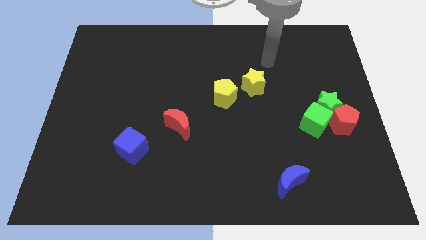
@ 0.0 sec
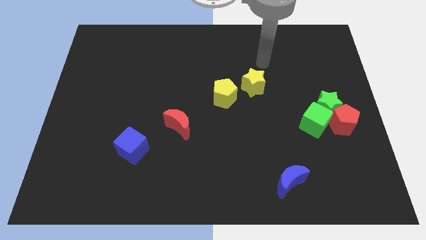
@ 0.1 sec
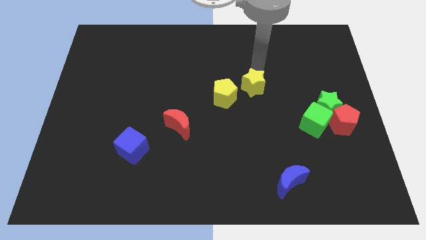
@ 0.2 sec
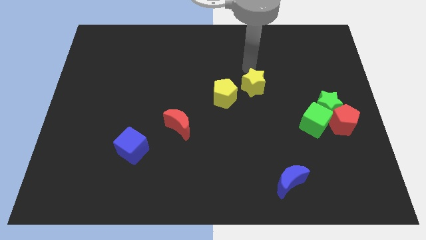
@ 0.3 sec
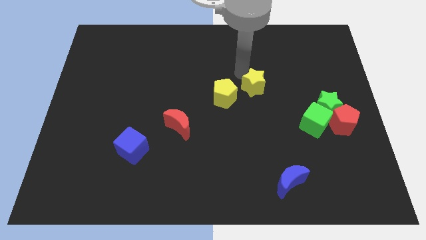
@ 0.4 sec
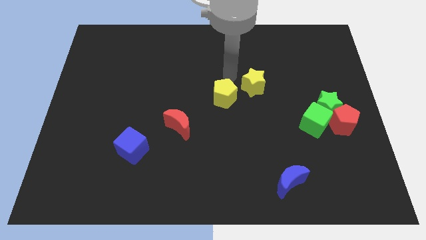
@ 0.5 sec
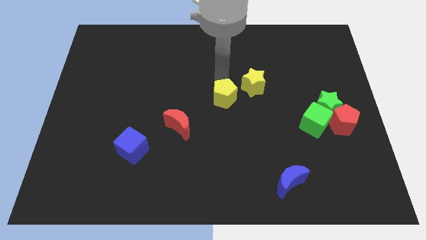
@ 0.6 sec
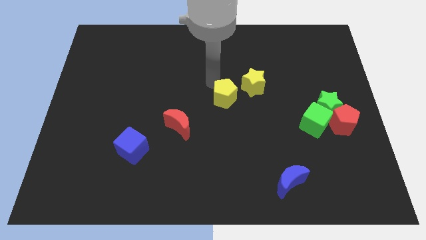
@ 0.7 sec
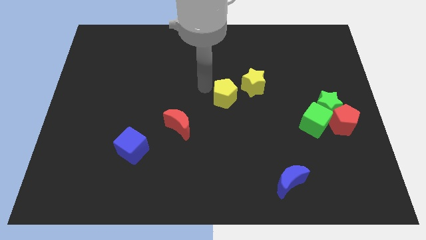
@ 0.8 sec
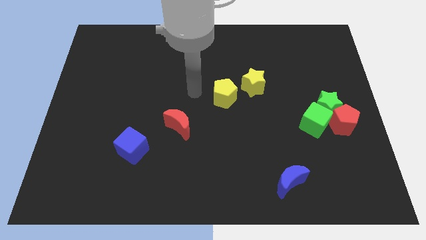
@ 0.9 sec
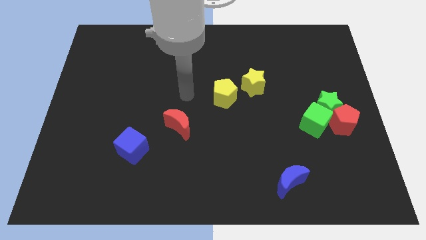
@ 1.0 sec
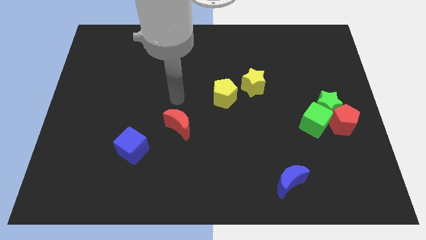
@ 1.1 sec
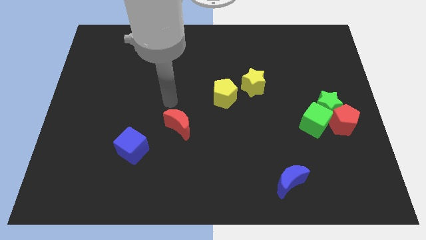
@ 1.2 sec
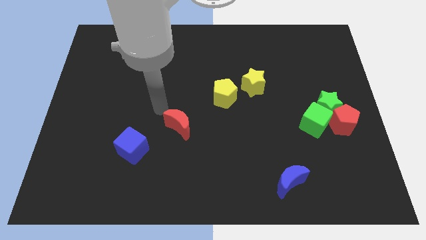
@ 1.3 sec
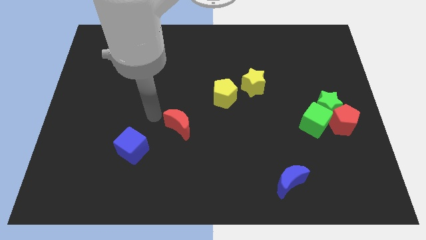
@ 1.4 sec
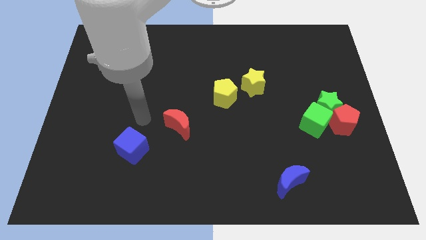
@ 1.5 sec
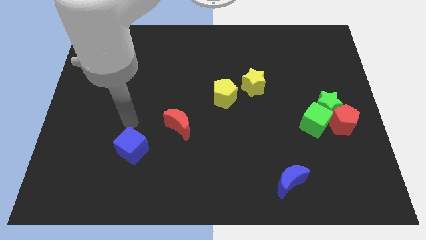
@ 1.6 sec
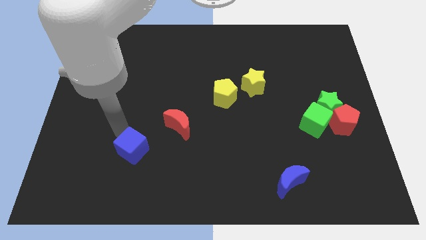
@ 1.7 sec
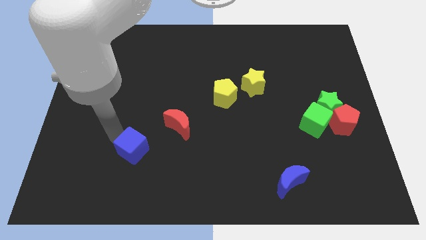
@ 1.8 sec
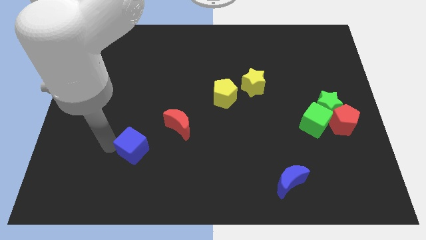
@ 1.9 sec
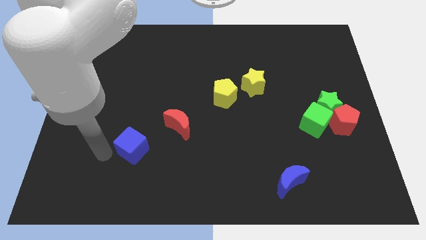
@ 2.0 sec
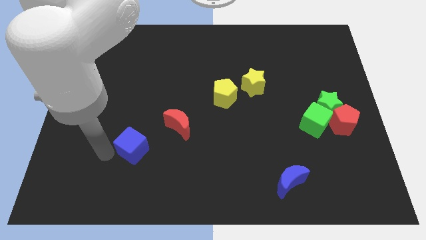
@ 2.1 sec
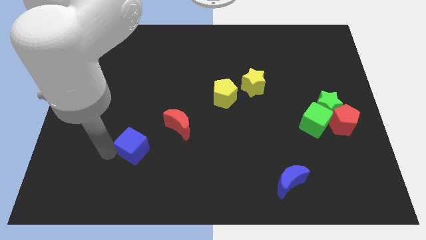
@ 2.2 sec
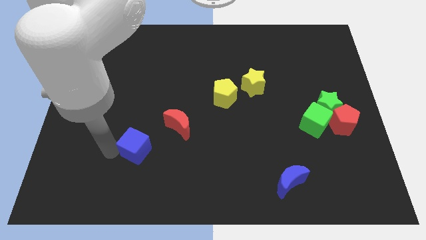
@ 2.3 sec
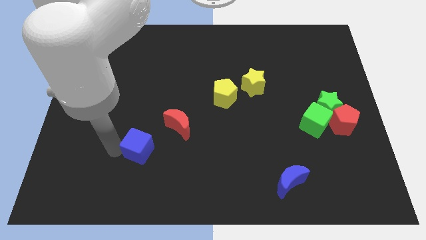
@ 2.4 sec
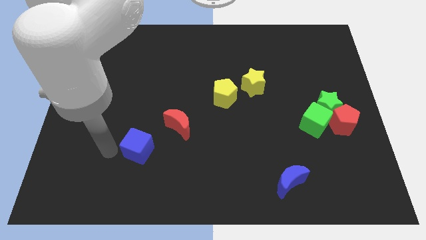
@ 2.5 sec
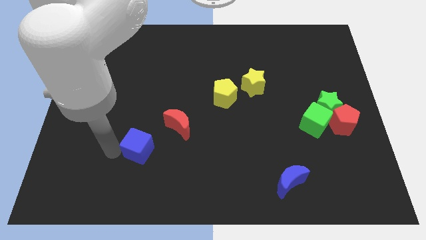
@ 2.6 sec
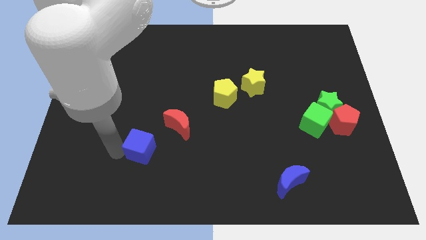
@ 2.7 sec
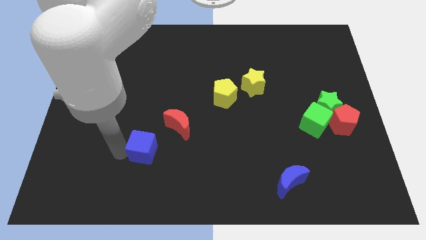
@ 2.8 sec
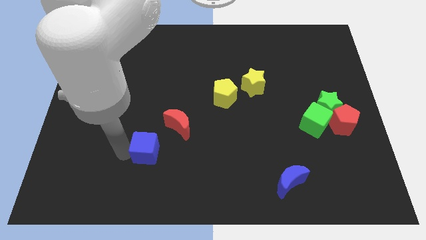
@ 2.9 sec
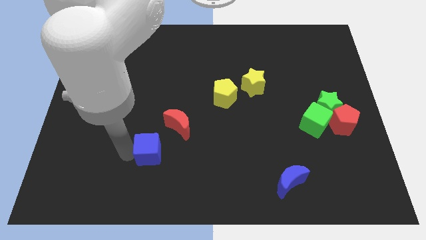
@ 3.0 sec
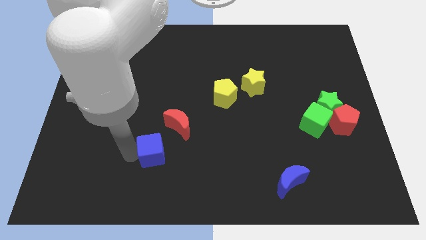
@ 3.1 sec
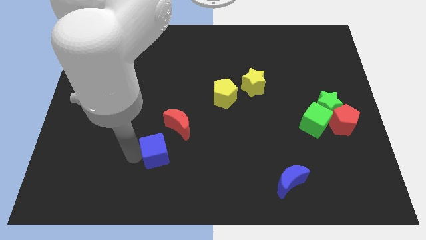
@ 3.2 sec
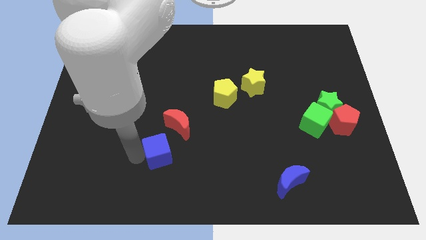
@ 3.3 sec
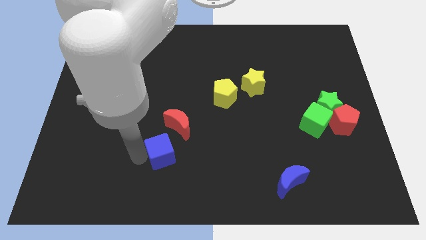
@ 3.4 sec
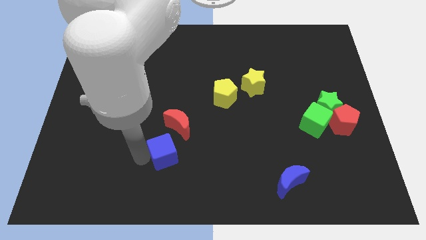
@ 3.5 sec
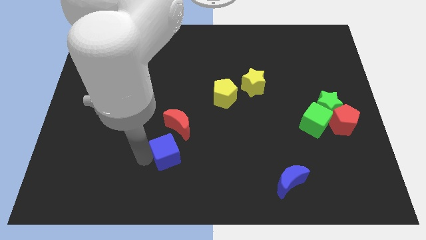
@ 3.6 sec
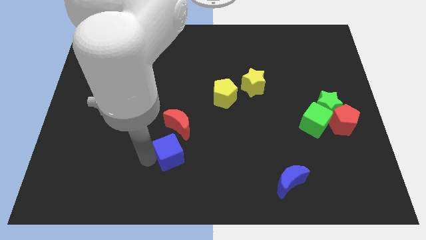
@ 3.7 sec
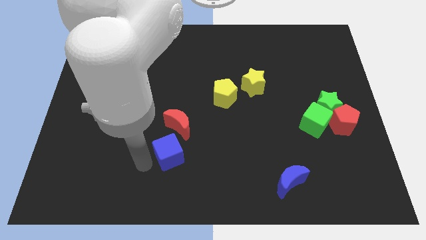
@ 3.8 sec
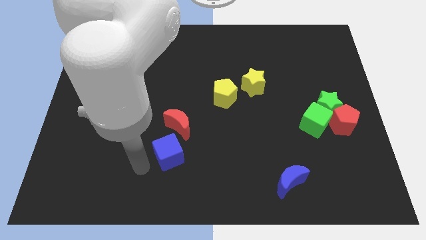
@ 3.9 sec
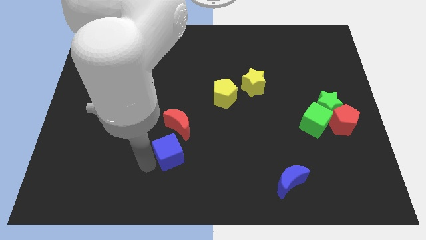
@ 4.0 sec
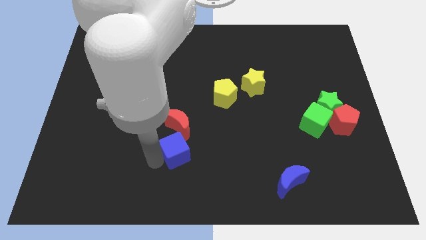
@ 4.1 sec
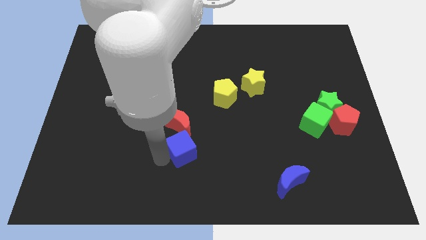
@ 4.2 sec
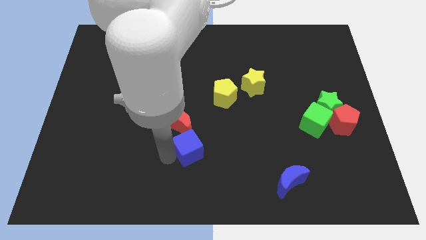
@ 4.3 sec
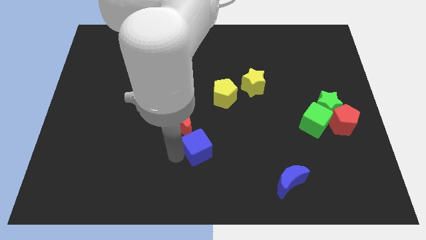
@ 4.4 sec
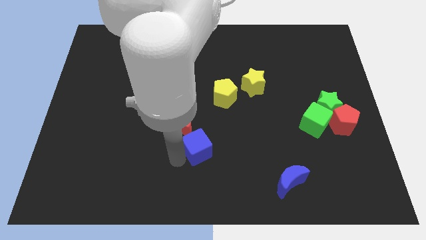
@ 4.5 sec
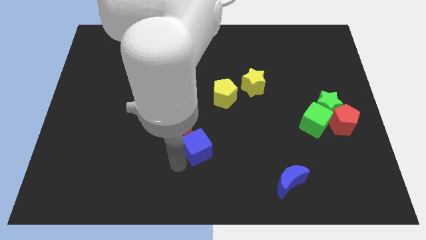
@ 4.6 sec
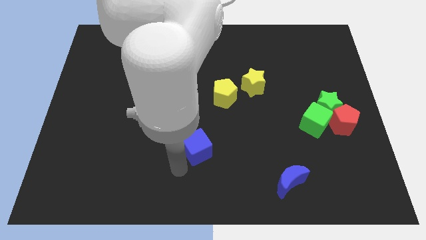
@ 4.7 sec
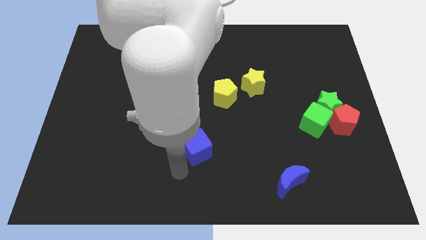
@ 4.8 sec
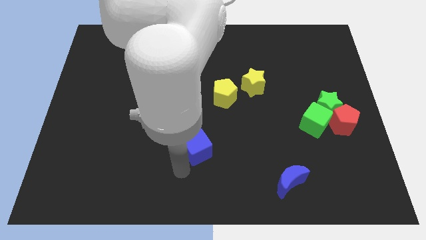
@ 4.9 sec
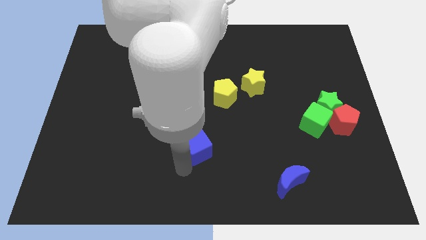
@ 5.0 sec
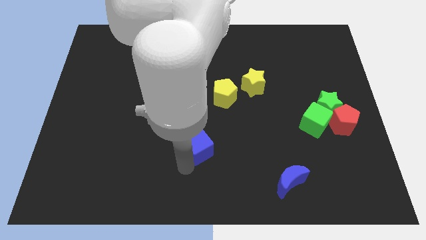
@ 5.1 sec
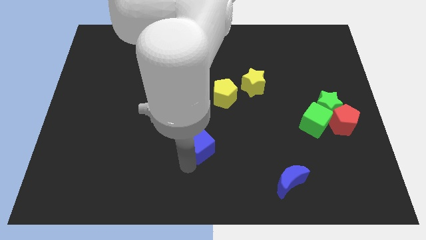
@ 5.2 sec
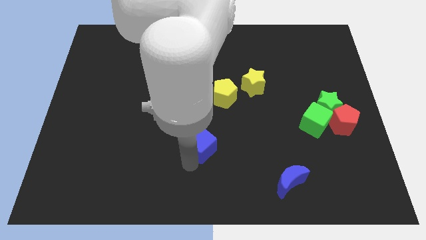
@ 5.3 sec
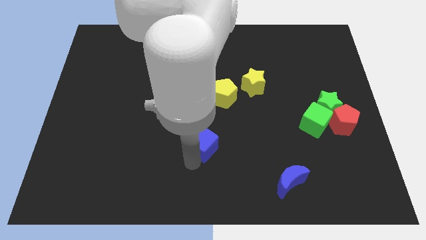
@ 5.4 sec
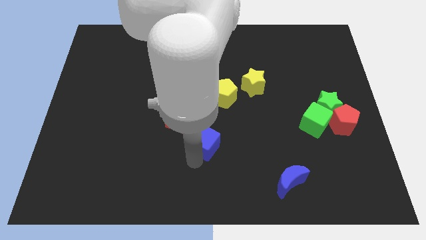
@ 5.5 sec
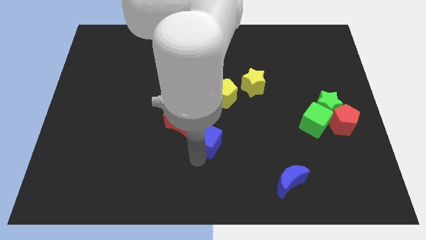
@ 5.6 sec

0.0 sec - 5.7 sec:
slide the blue cube right of the red moon

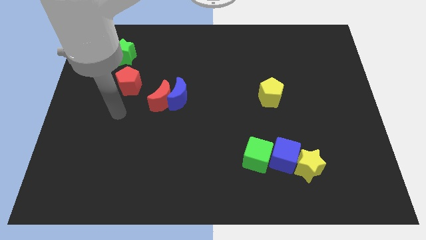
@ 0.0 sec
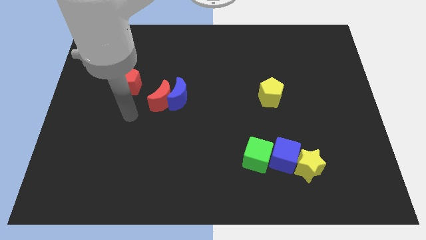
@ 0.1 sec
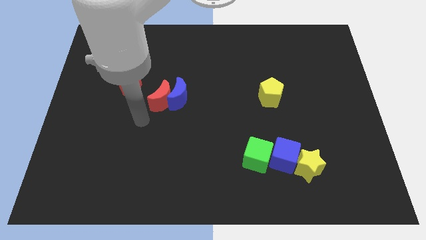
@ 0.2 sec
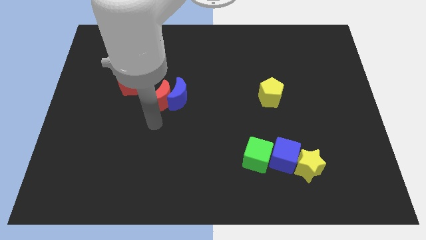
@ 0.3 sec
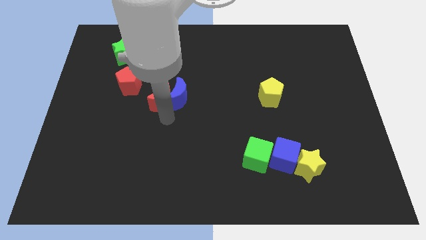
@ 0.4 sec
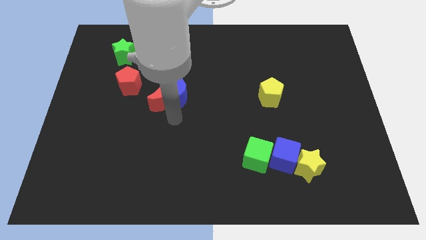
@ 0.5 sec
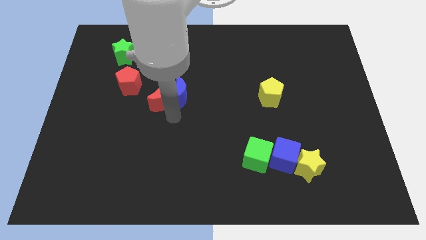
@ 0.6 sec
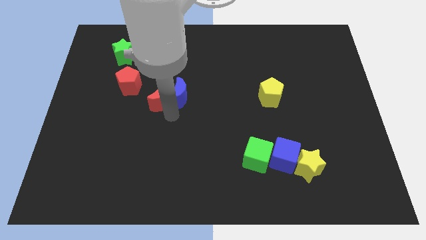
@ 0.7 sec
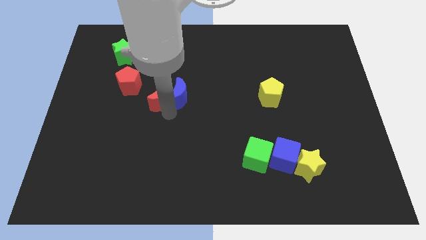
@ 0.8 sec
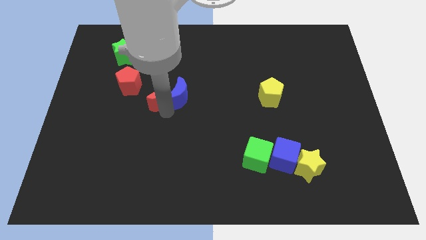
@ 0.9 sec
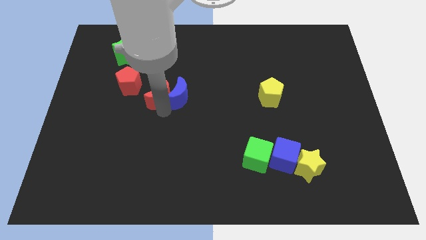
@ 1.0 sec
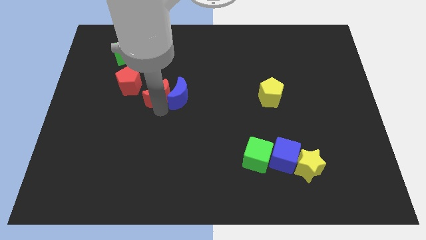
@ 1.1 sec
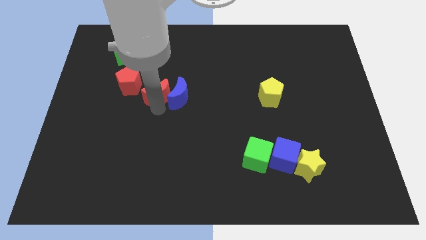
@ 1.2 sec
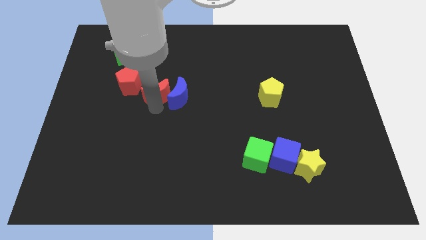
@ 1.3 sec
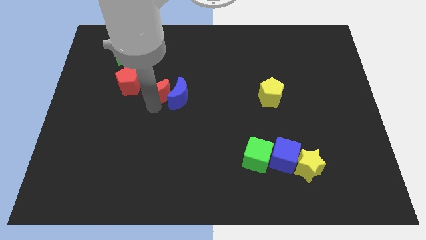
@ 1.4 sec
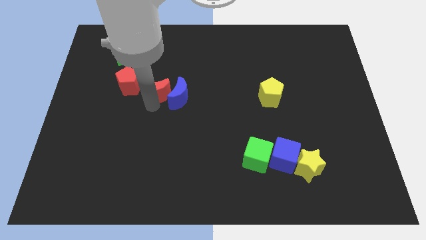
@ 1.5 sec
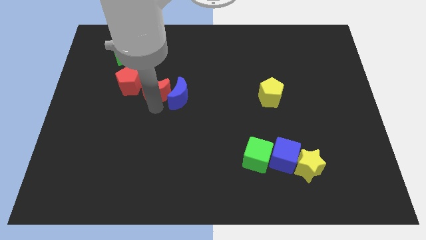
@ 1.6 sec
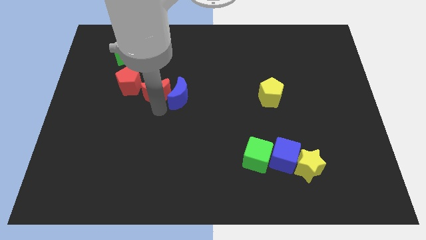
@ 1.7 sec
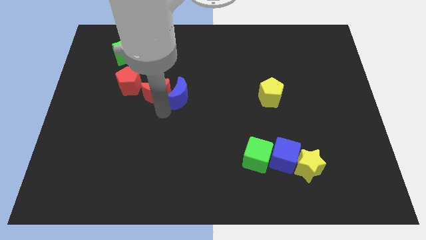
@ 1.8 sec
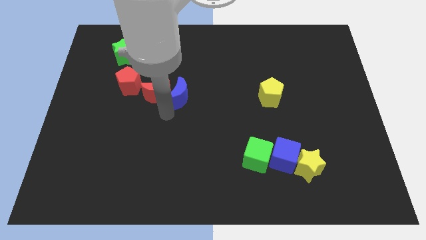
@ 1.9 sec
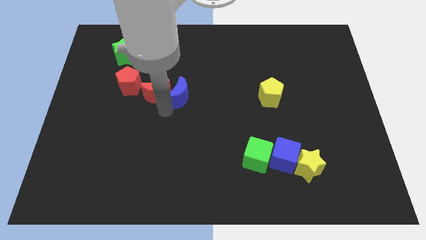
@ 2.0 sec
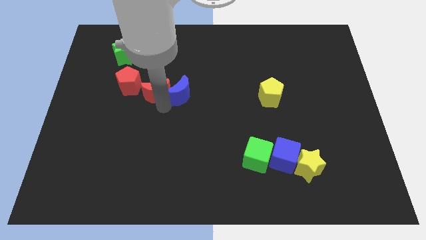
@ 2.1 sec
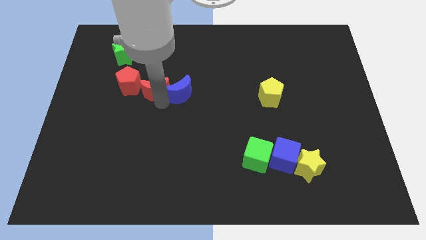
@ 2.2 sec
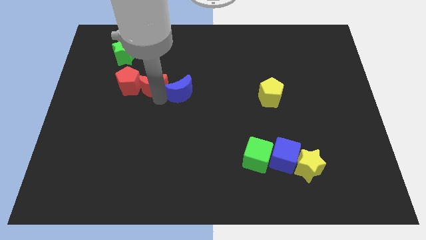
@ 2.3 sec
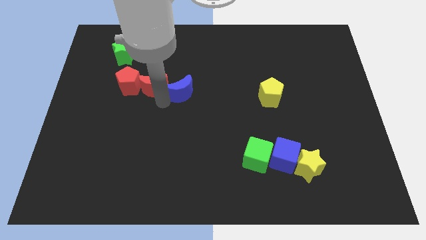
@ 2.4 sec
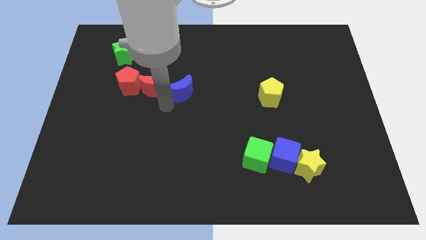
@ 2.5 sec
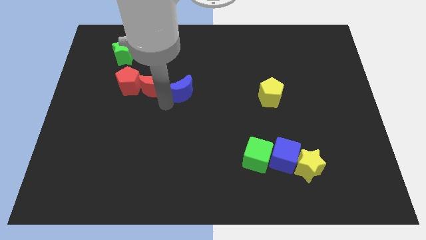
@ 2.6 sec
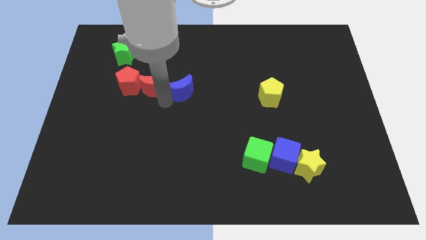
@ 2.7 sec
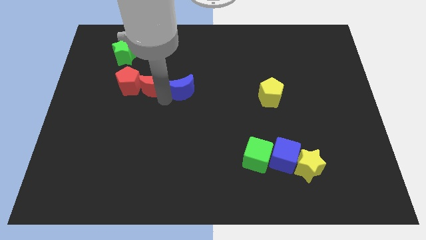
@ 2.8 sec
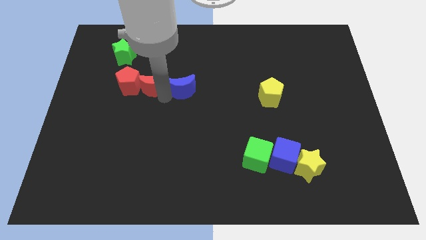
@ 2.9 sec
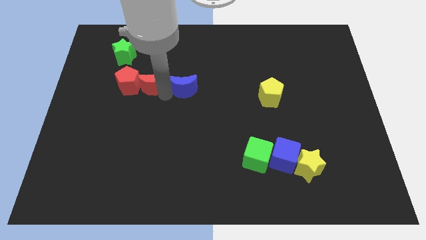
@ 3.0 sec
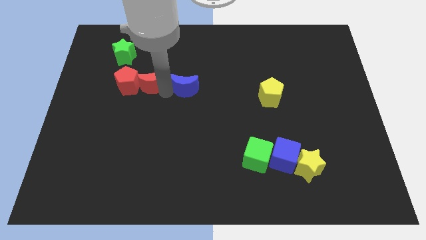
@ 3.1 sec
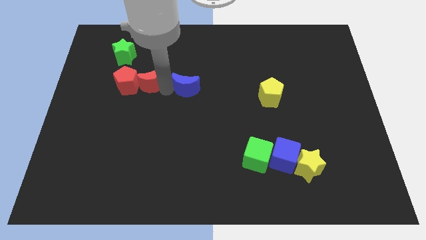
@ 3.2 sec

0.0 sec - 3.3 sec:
put the red moon diagonally down and to the right of the green star
